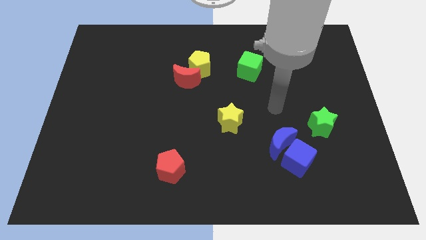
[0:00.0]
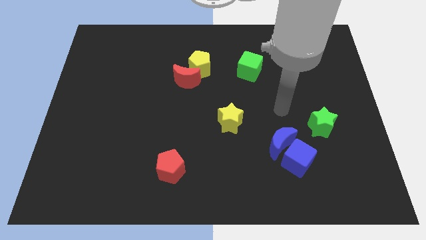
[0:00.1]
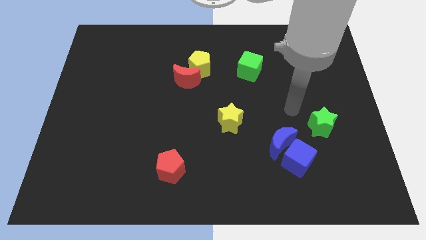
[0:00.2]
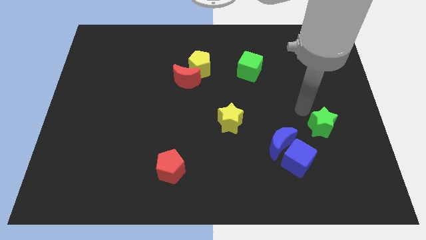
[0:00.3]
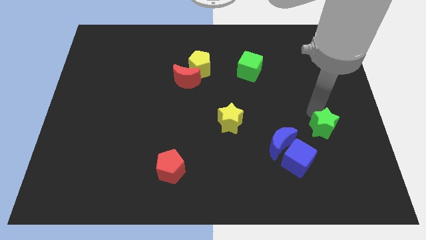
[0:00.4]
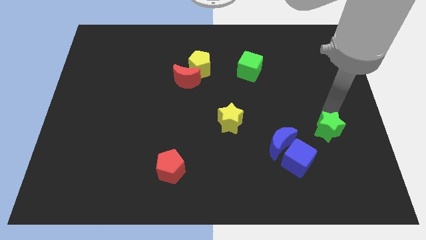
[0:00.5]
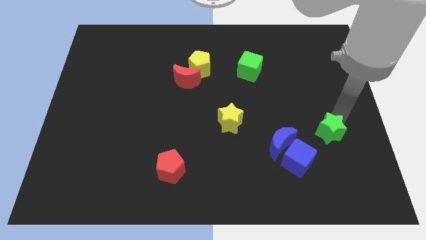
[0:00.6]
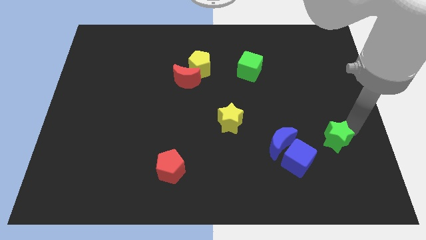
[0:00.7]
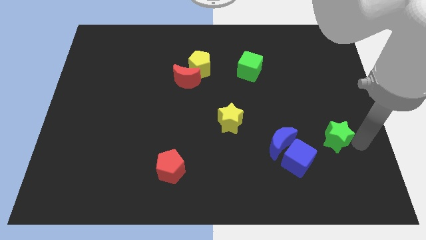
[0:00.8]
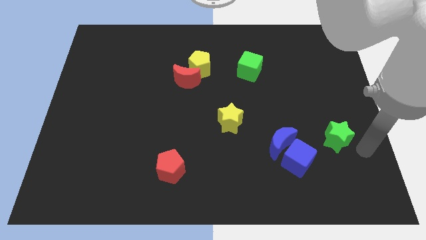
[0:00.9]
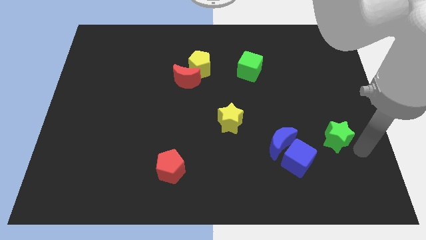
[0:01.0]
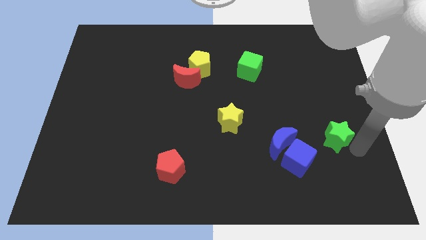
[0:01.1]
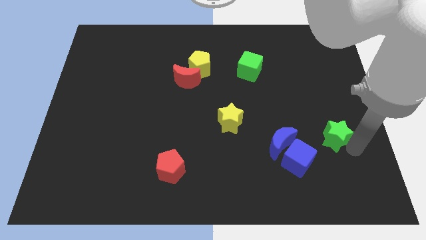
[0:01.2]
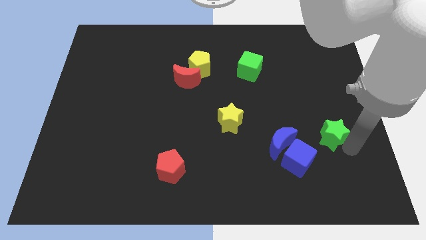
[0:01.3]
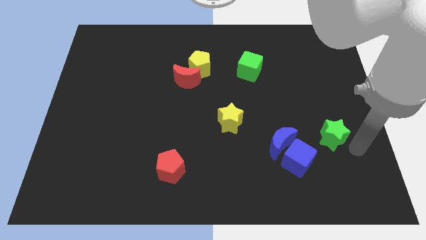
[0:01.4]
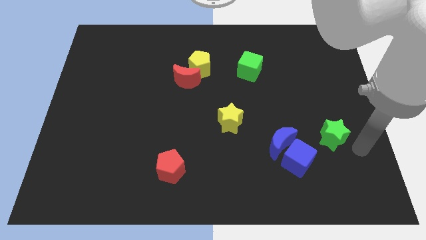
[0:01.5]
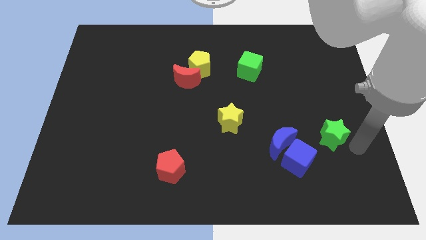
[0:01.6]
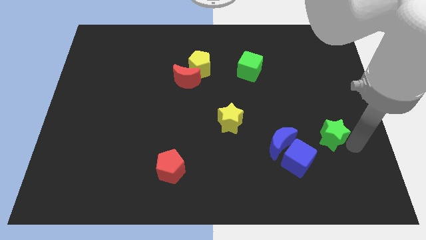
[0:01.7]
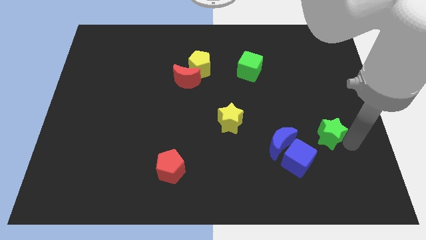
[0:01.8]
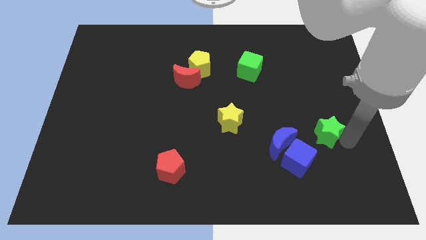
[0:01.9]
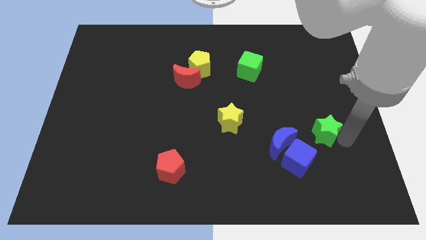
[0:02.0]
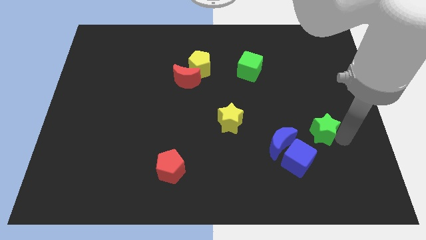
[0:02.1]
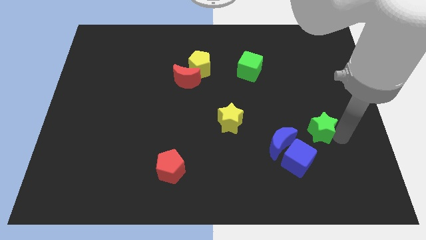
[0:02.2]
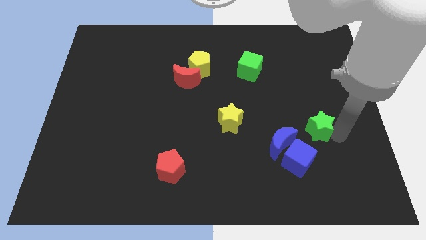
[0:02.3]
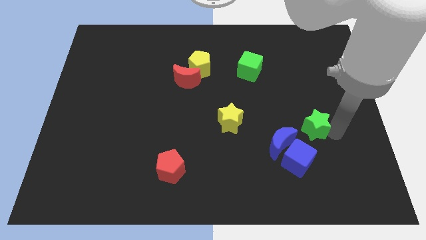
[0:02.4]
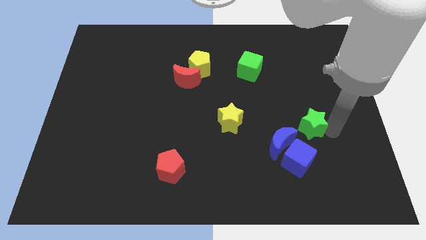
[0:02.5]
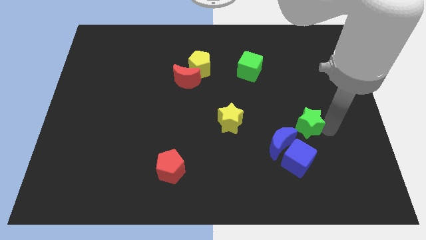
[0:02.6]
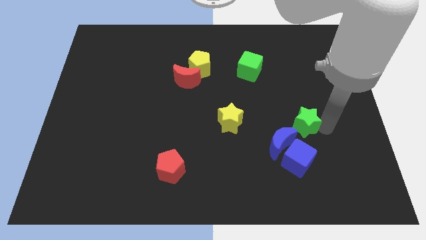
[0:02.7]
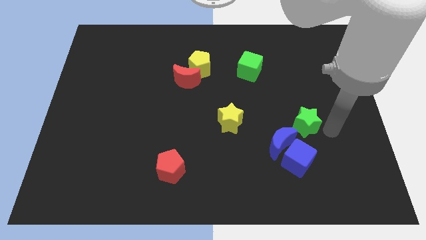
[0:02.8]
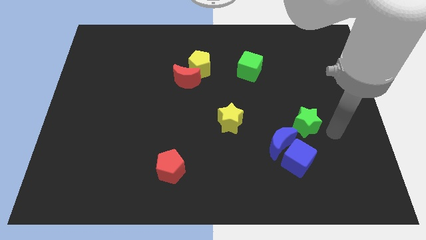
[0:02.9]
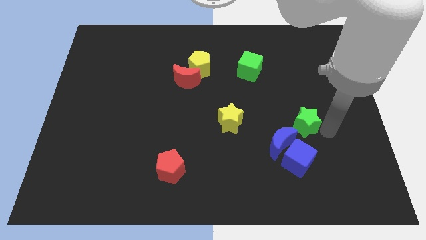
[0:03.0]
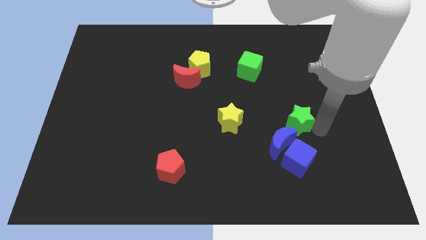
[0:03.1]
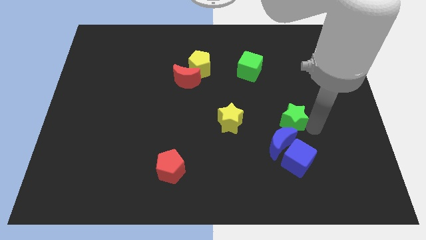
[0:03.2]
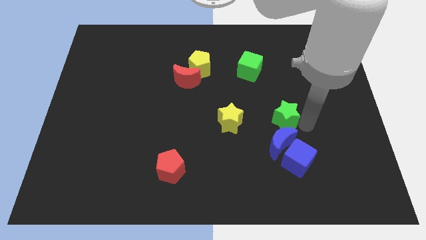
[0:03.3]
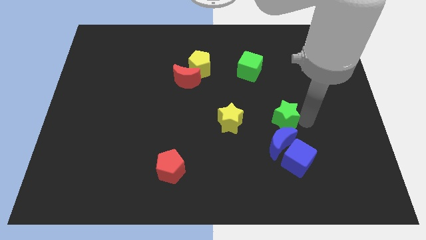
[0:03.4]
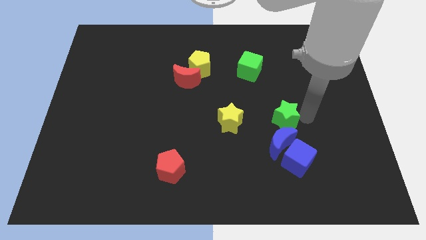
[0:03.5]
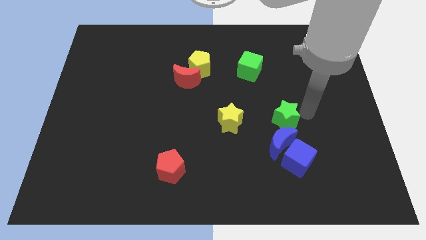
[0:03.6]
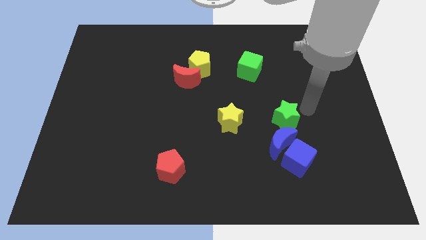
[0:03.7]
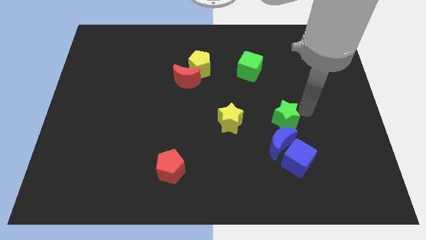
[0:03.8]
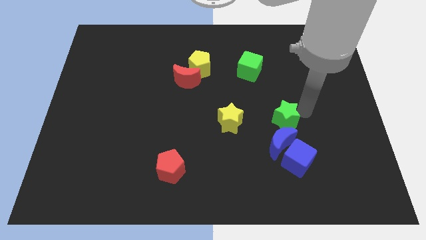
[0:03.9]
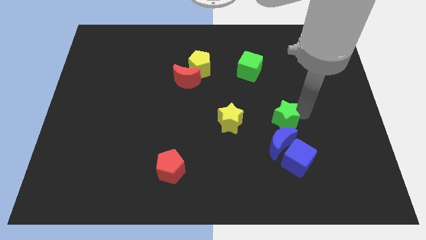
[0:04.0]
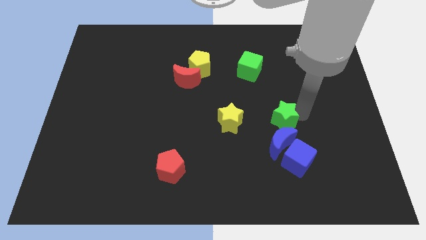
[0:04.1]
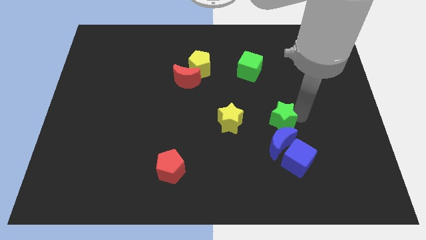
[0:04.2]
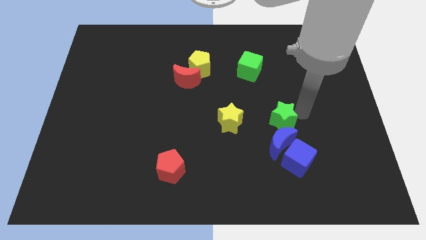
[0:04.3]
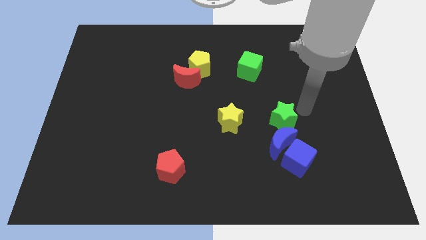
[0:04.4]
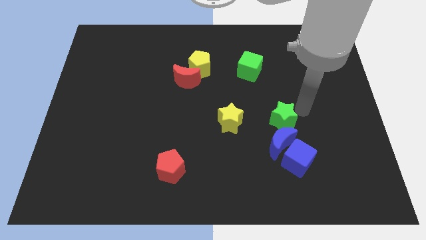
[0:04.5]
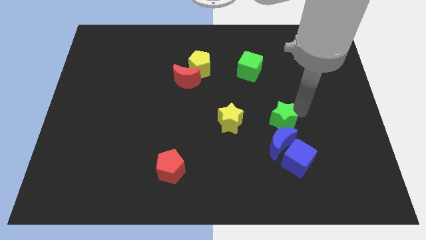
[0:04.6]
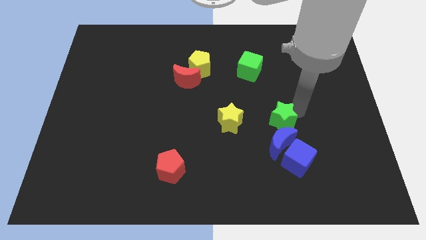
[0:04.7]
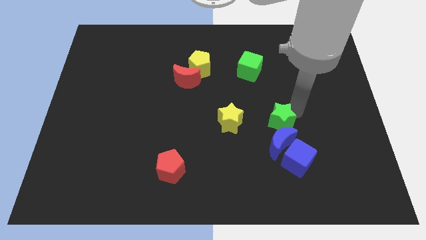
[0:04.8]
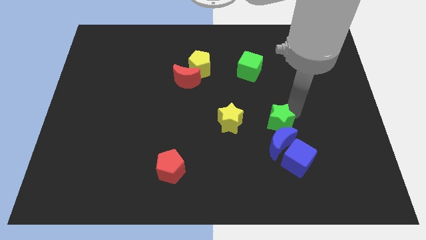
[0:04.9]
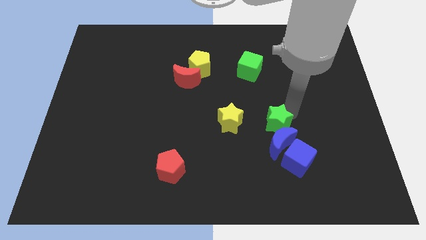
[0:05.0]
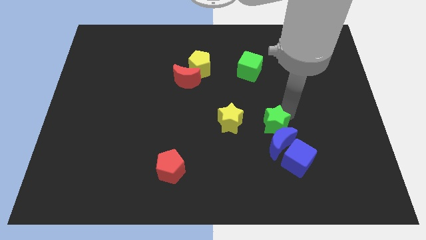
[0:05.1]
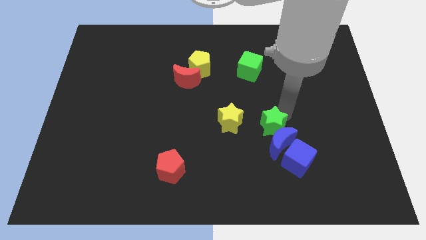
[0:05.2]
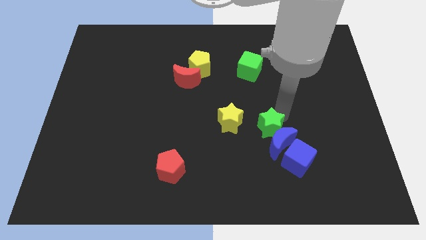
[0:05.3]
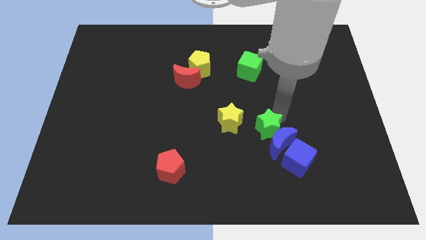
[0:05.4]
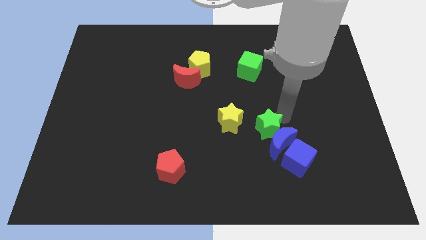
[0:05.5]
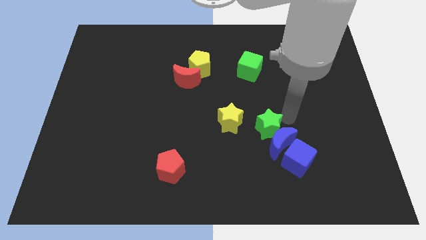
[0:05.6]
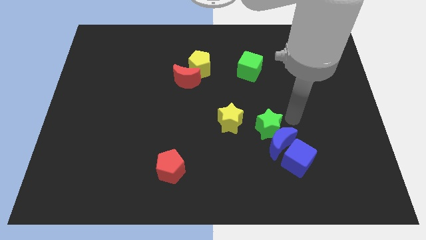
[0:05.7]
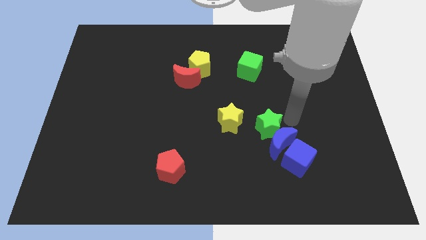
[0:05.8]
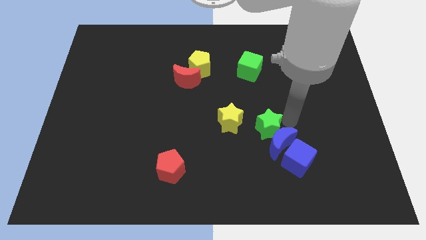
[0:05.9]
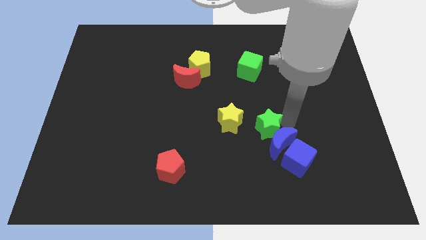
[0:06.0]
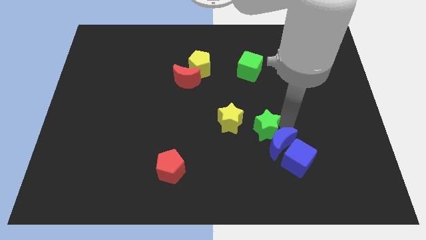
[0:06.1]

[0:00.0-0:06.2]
put the green star just left of the blue moon

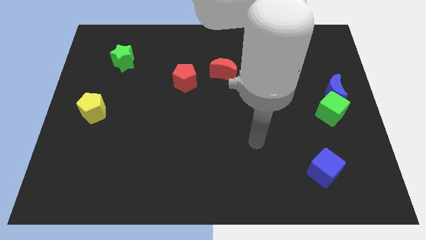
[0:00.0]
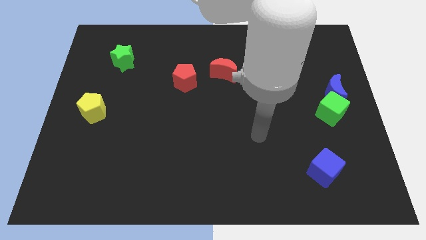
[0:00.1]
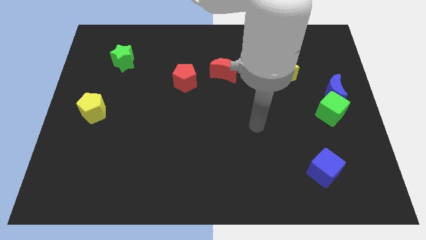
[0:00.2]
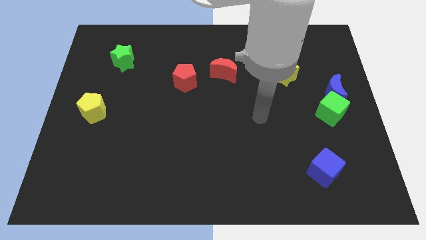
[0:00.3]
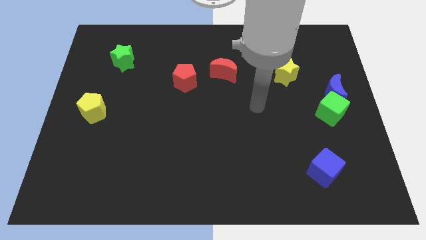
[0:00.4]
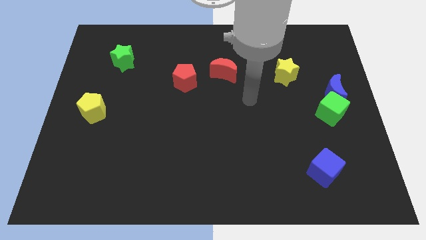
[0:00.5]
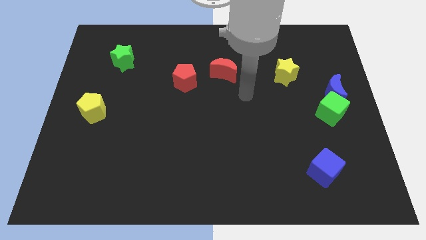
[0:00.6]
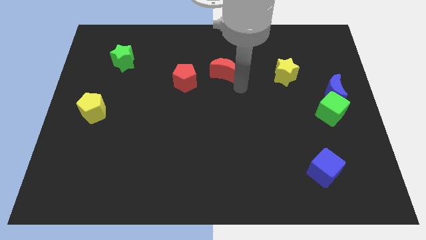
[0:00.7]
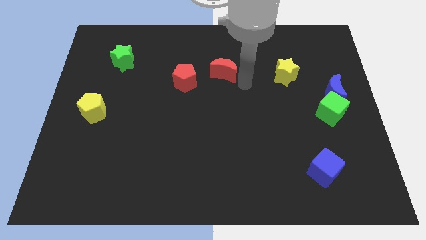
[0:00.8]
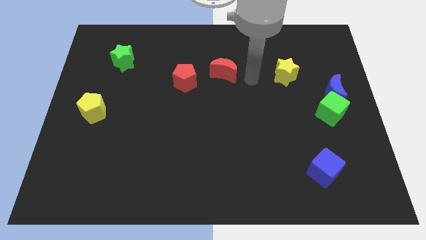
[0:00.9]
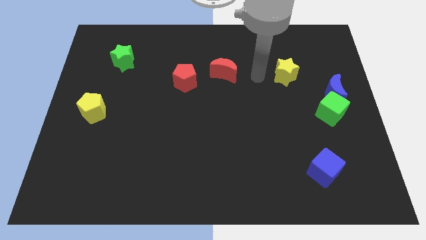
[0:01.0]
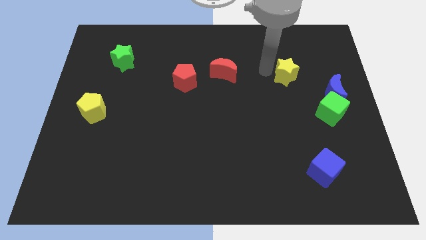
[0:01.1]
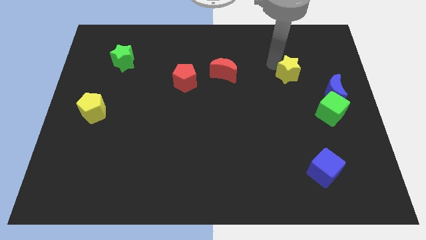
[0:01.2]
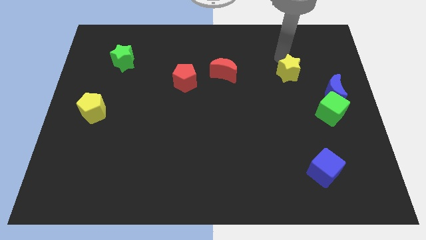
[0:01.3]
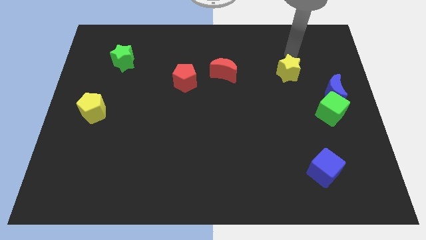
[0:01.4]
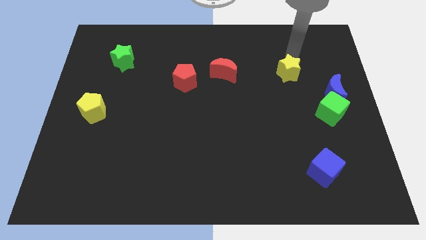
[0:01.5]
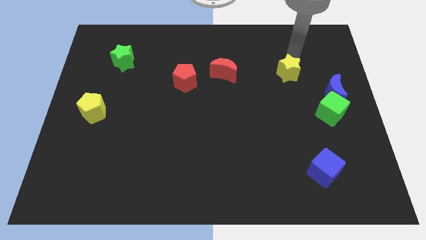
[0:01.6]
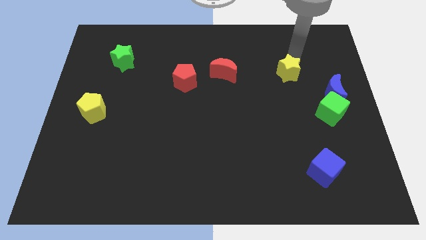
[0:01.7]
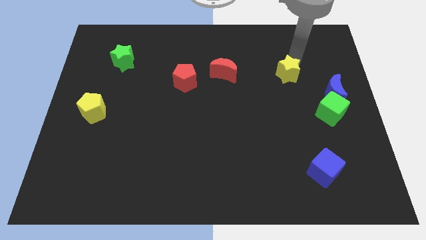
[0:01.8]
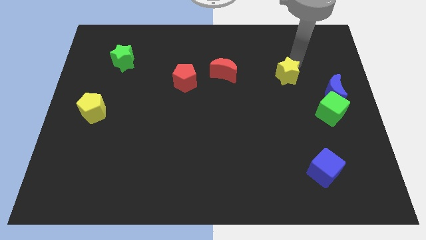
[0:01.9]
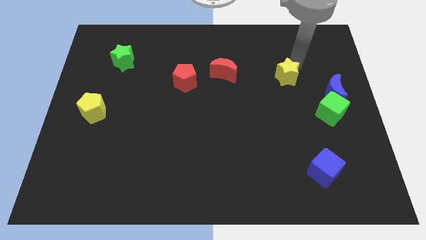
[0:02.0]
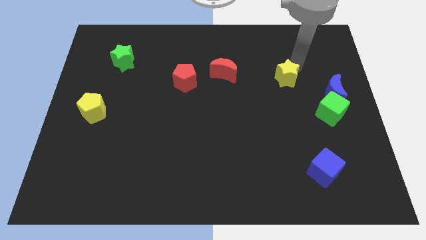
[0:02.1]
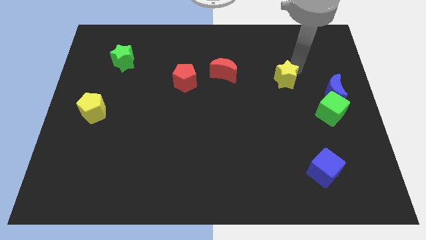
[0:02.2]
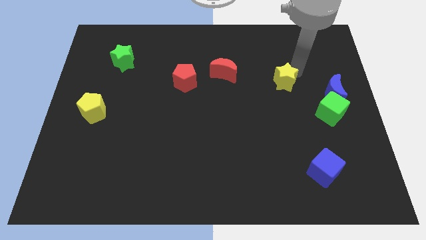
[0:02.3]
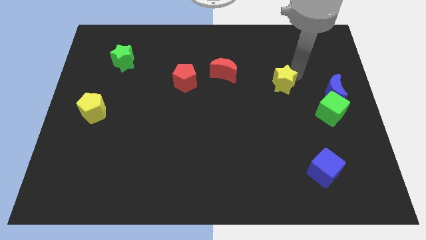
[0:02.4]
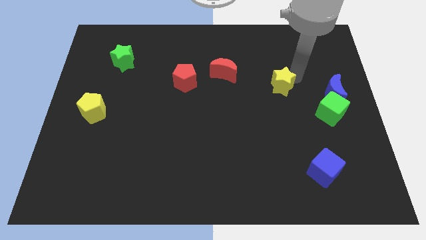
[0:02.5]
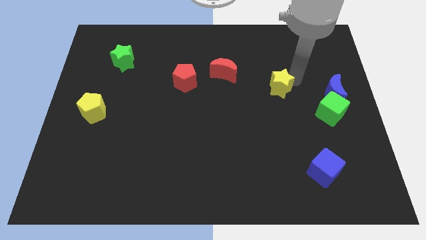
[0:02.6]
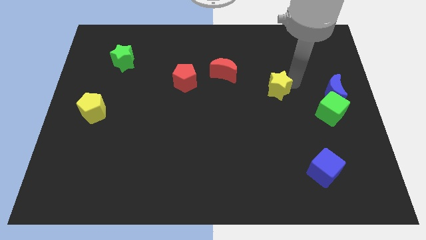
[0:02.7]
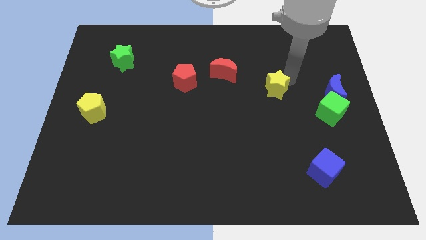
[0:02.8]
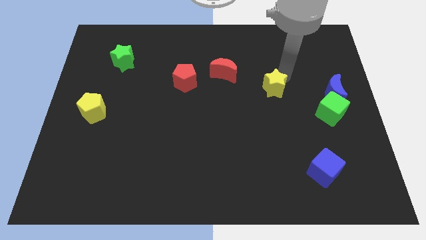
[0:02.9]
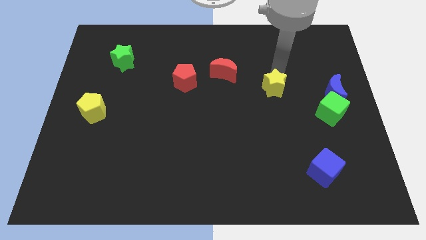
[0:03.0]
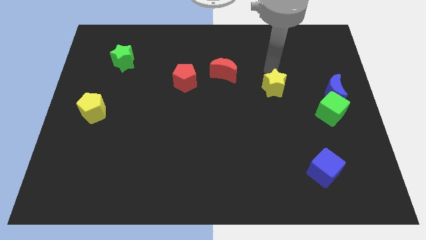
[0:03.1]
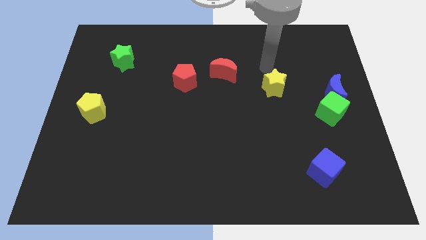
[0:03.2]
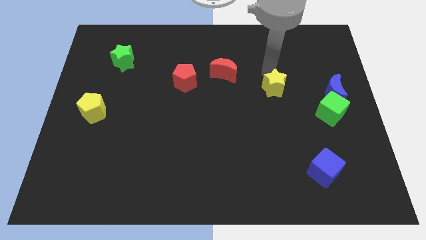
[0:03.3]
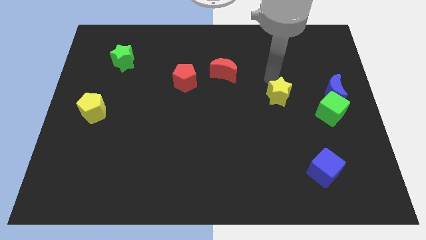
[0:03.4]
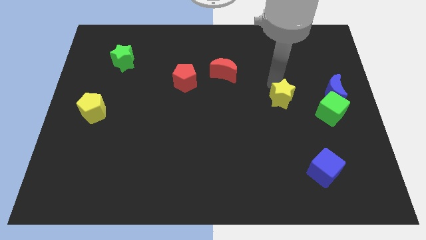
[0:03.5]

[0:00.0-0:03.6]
move the yellow star to the left side of the green cube
